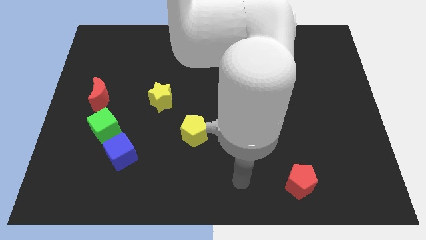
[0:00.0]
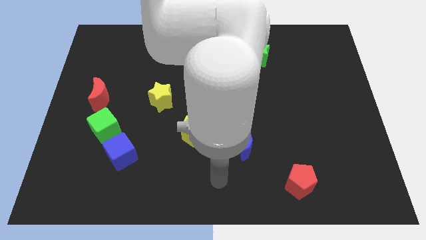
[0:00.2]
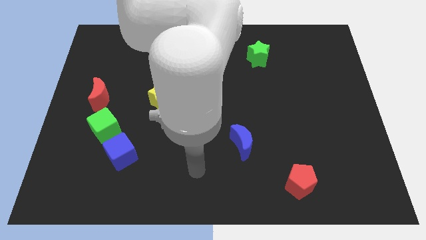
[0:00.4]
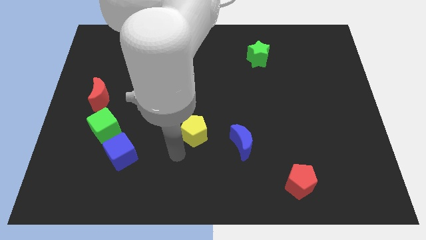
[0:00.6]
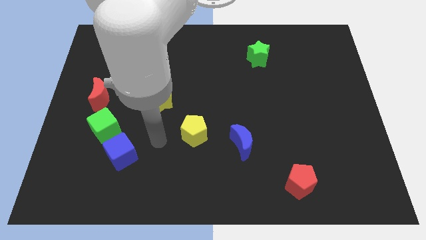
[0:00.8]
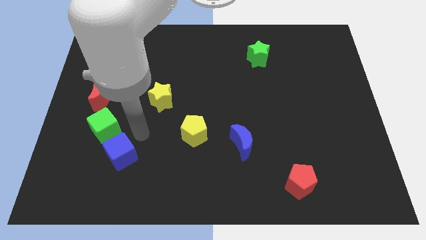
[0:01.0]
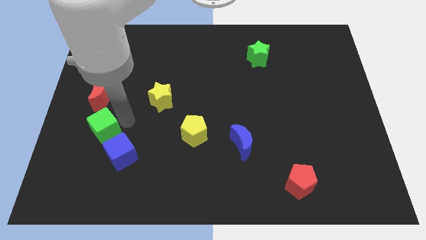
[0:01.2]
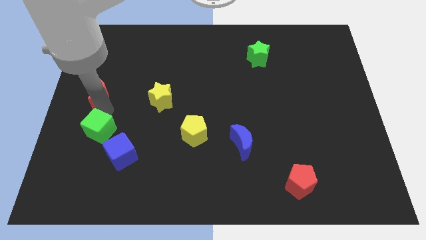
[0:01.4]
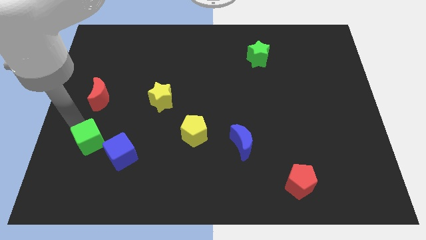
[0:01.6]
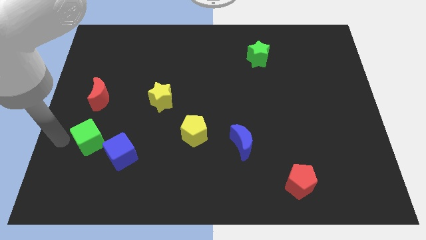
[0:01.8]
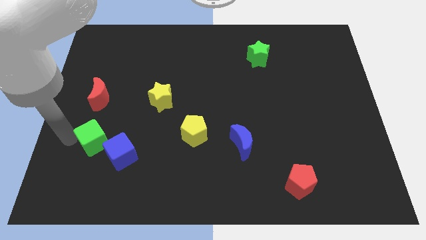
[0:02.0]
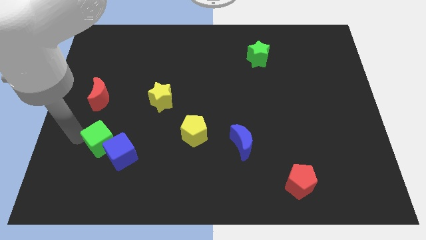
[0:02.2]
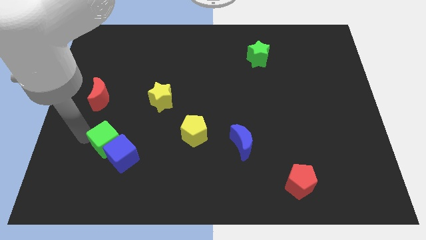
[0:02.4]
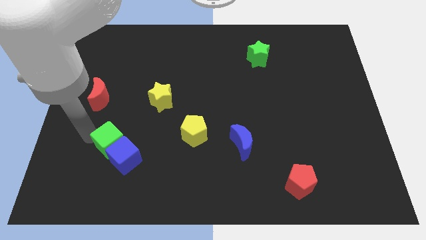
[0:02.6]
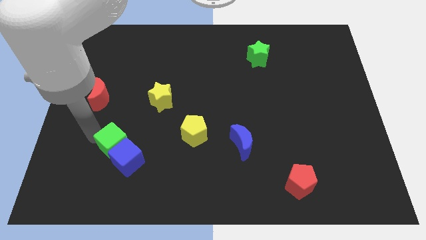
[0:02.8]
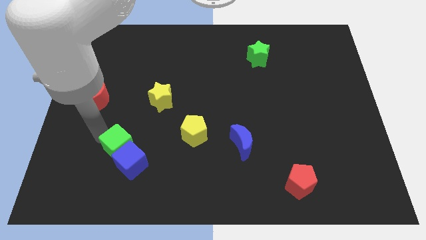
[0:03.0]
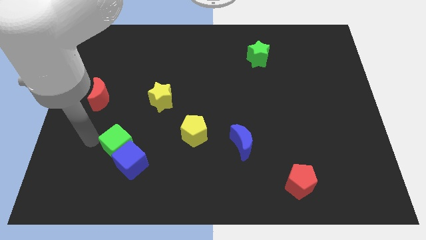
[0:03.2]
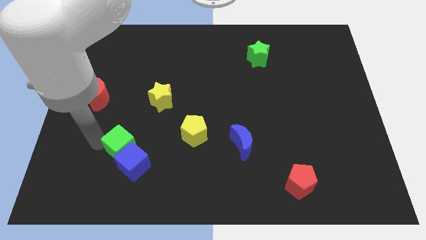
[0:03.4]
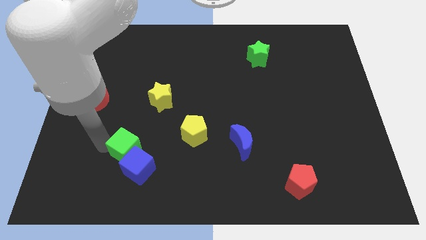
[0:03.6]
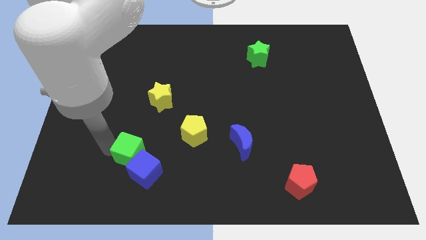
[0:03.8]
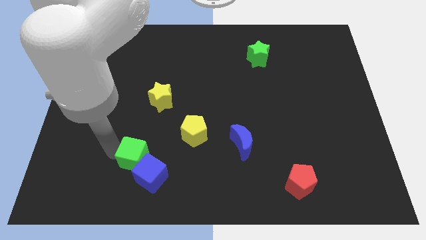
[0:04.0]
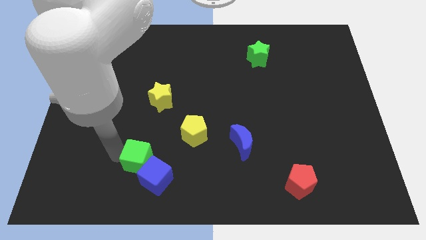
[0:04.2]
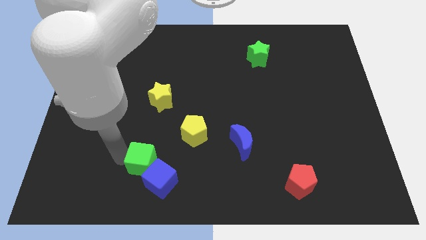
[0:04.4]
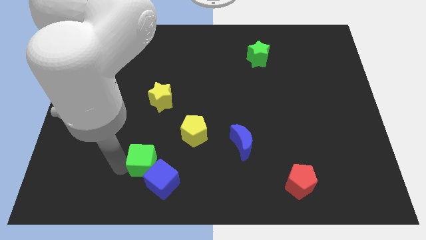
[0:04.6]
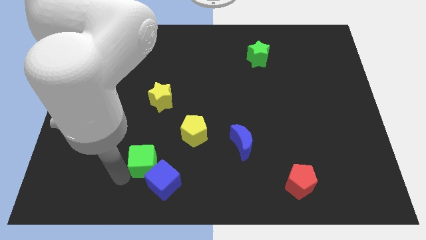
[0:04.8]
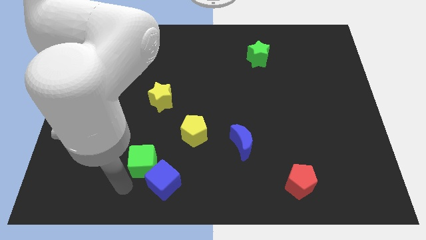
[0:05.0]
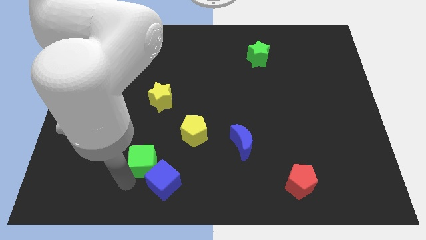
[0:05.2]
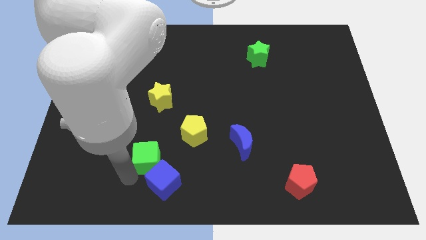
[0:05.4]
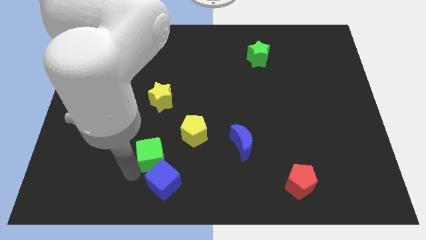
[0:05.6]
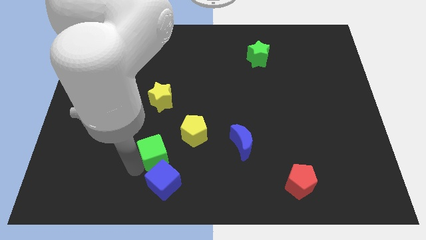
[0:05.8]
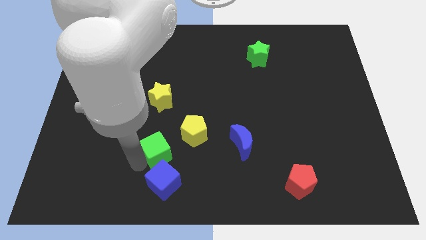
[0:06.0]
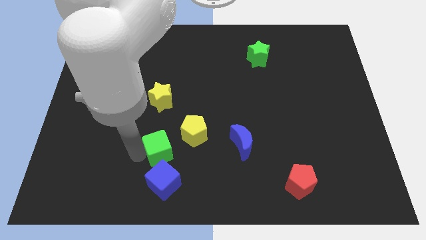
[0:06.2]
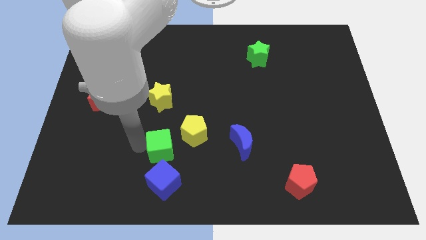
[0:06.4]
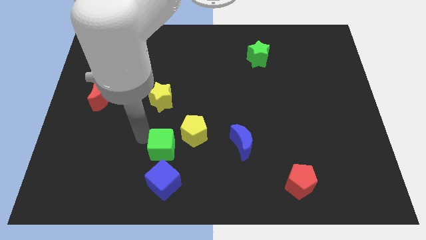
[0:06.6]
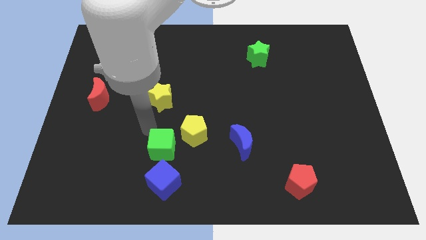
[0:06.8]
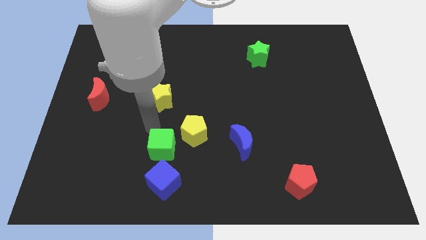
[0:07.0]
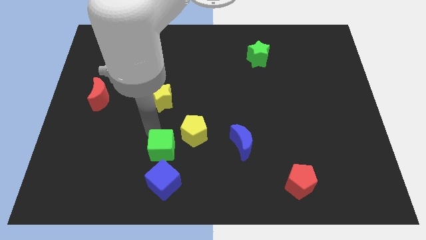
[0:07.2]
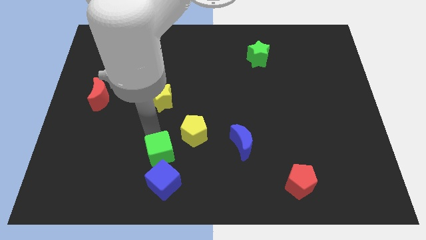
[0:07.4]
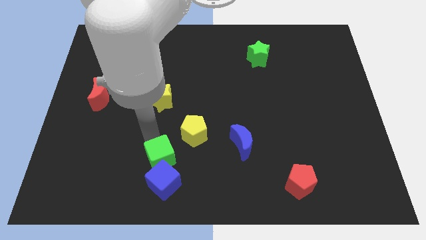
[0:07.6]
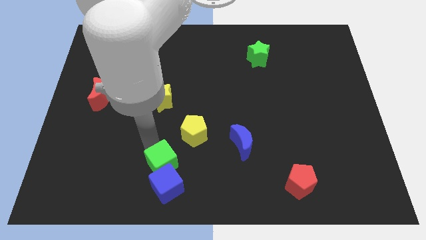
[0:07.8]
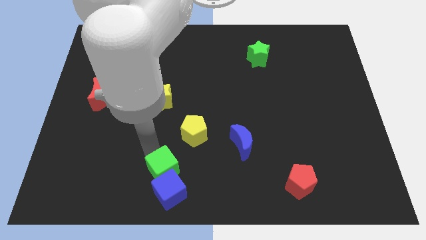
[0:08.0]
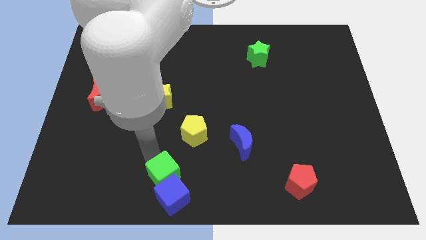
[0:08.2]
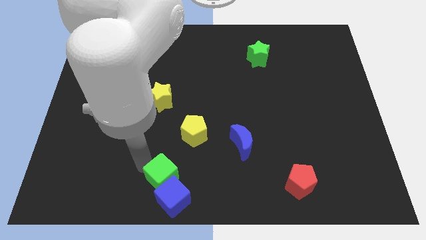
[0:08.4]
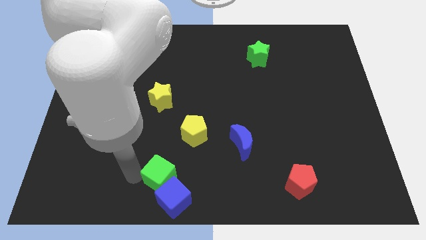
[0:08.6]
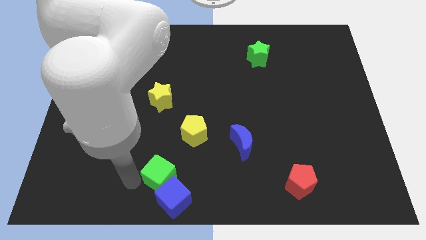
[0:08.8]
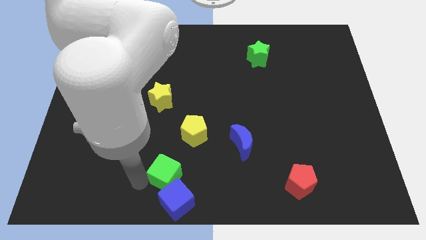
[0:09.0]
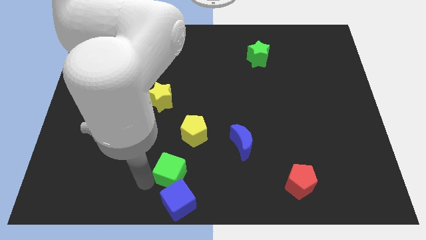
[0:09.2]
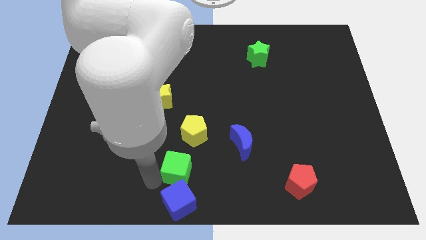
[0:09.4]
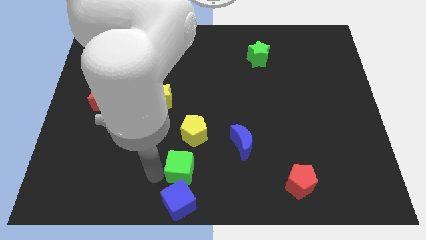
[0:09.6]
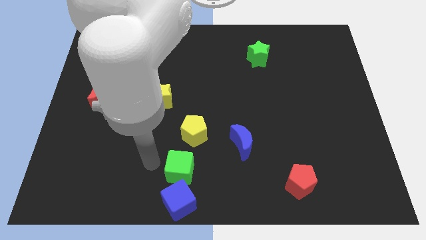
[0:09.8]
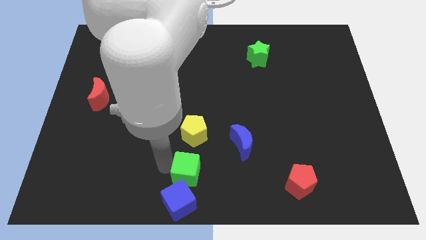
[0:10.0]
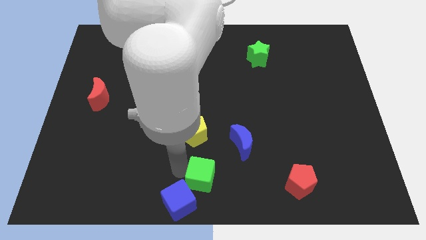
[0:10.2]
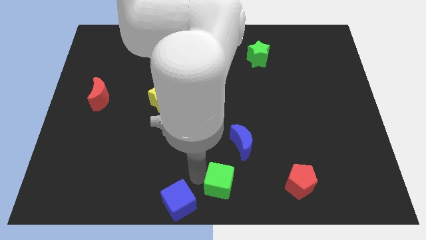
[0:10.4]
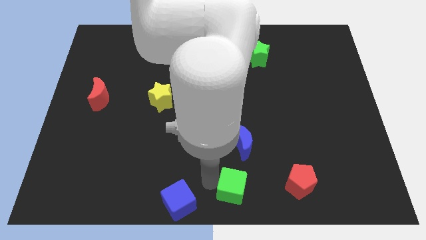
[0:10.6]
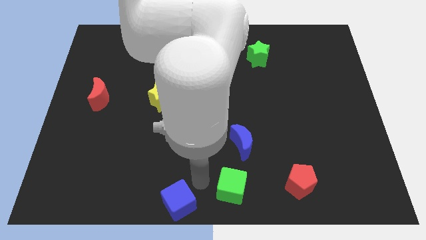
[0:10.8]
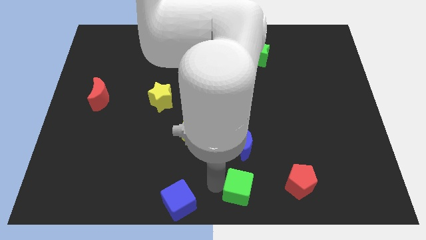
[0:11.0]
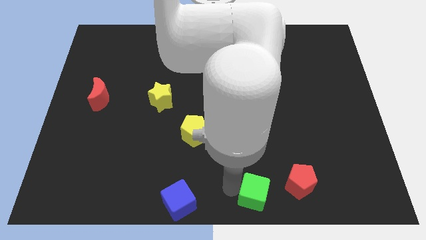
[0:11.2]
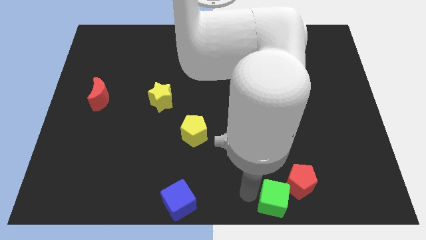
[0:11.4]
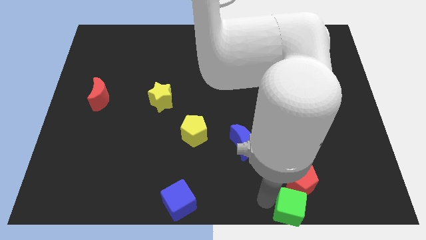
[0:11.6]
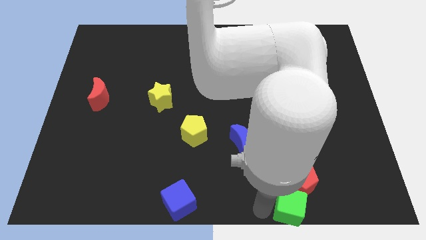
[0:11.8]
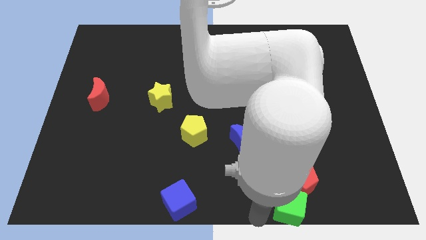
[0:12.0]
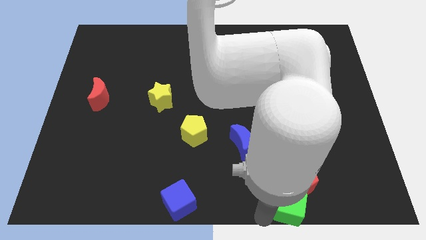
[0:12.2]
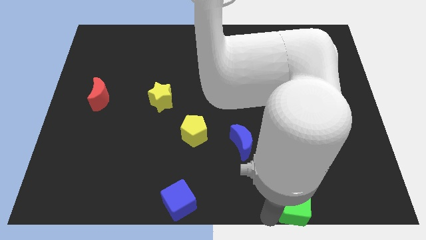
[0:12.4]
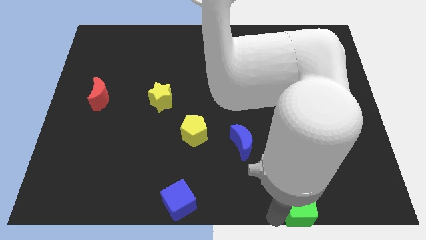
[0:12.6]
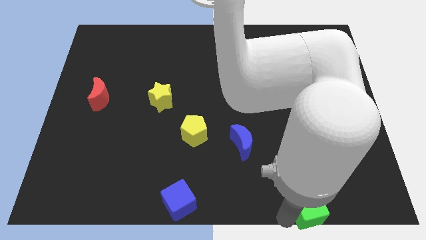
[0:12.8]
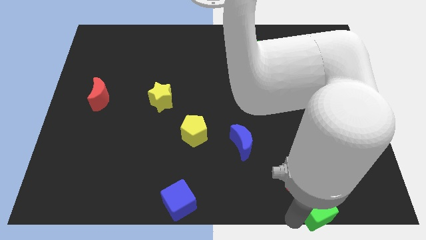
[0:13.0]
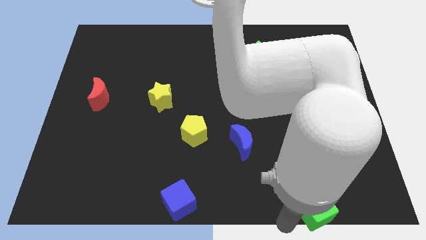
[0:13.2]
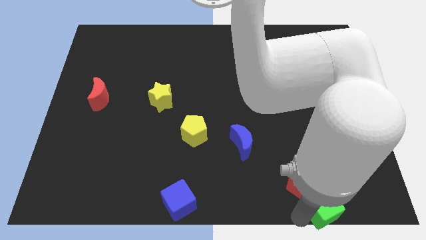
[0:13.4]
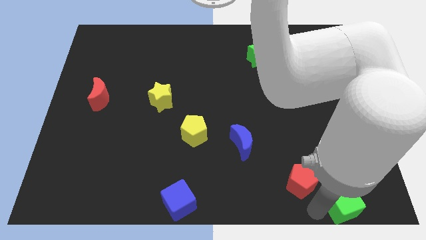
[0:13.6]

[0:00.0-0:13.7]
slide the green cube to the bottom right

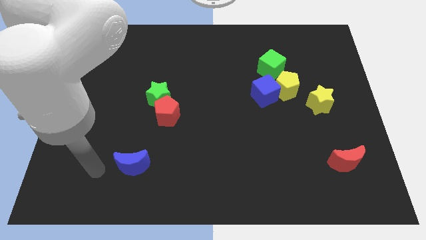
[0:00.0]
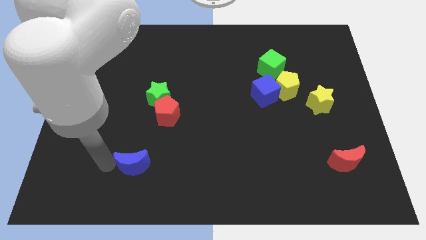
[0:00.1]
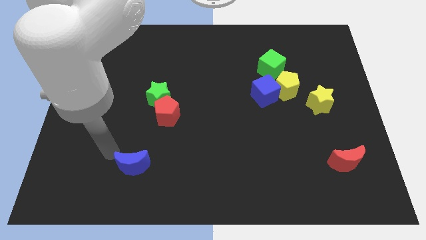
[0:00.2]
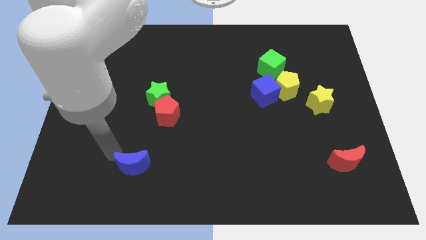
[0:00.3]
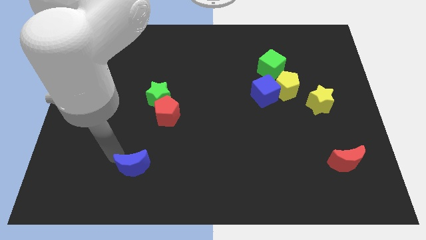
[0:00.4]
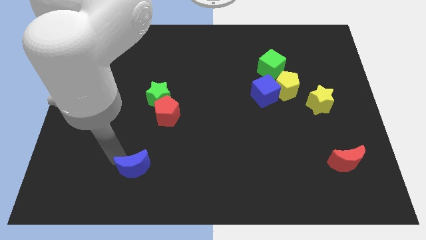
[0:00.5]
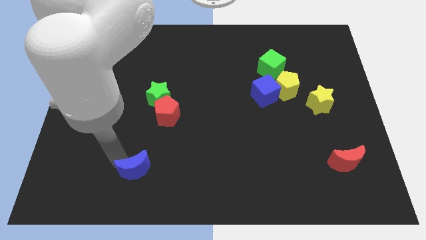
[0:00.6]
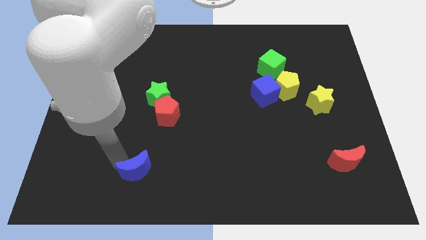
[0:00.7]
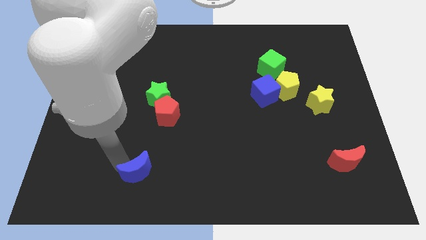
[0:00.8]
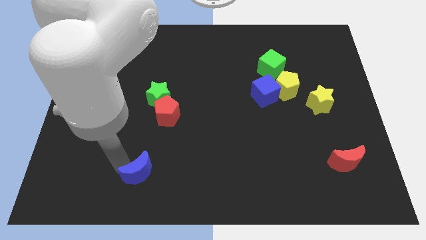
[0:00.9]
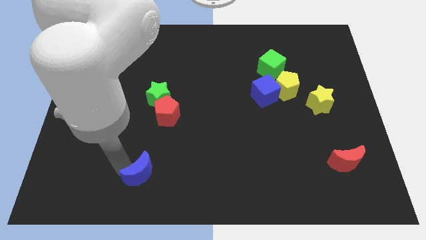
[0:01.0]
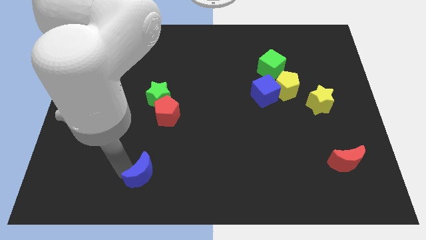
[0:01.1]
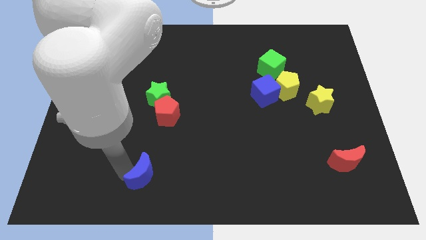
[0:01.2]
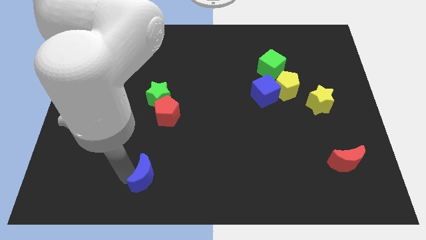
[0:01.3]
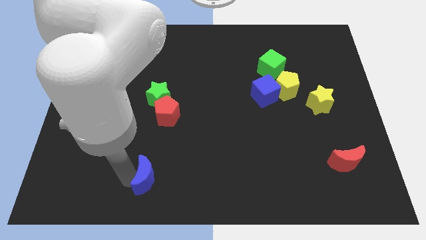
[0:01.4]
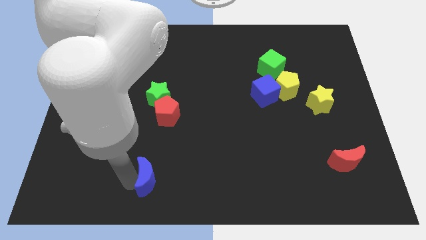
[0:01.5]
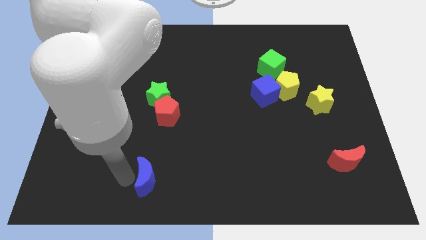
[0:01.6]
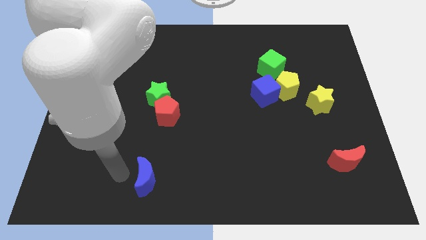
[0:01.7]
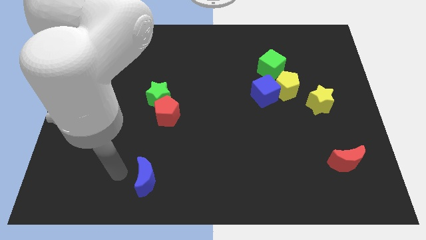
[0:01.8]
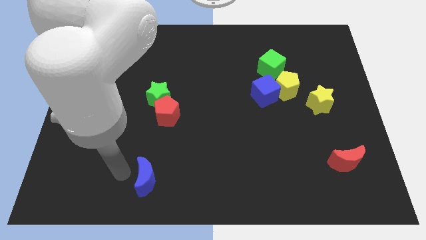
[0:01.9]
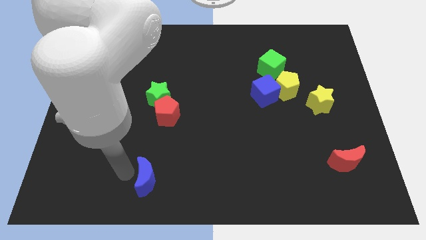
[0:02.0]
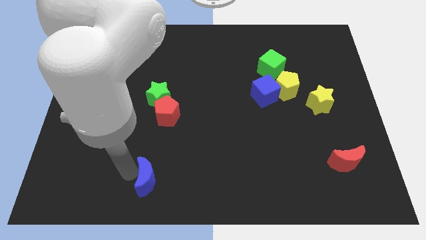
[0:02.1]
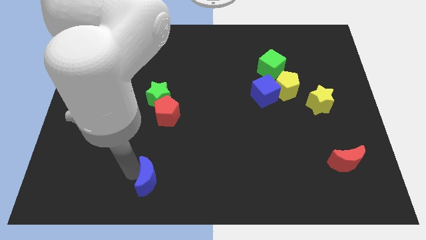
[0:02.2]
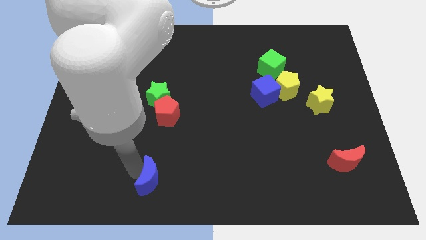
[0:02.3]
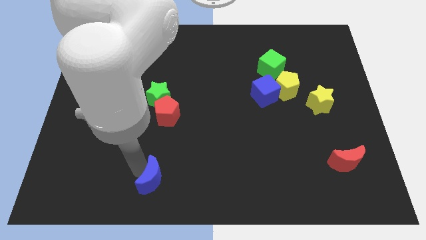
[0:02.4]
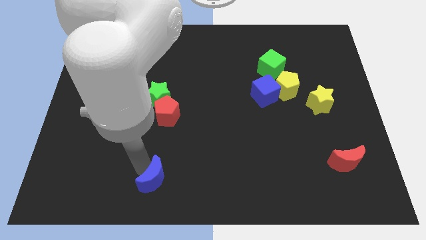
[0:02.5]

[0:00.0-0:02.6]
slide the blue moon to the bottom
